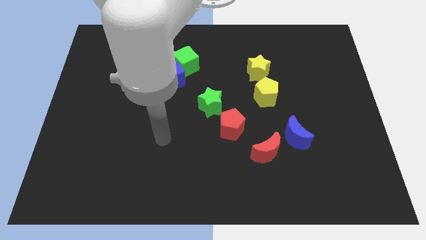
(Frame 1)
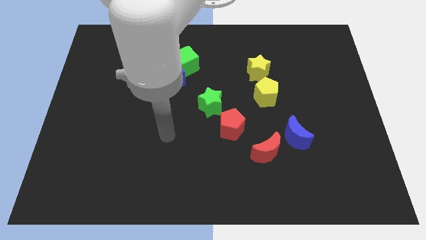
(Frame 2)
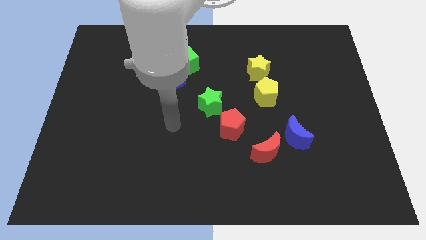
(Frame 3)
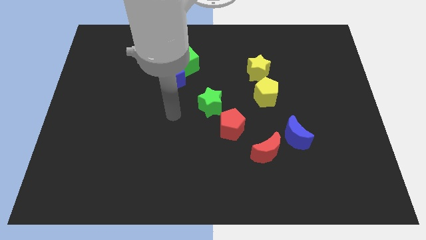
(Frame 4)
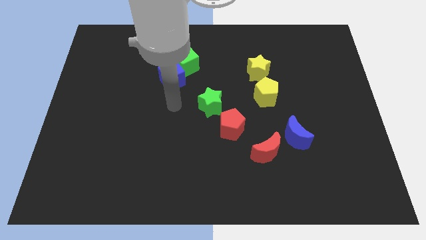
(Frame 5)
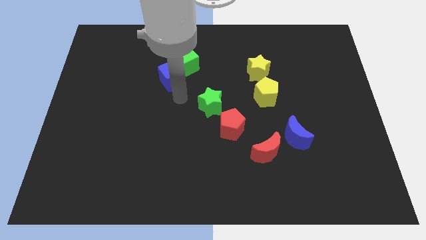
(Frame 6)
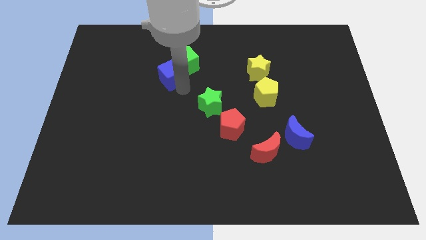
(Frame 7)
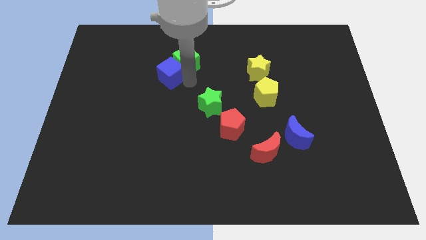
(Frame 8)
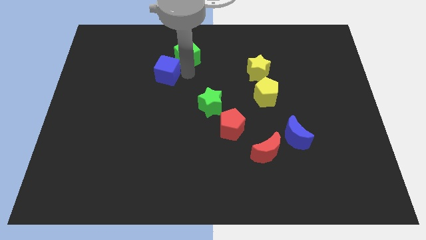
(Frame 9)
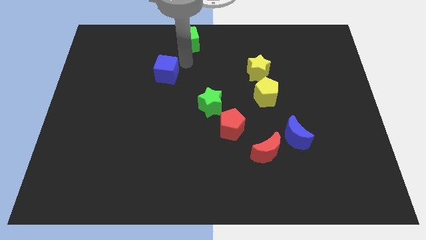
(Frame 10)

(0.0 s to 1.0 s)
pull the blue cube apart from the green cube

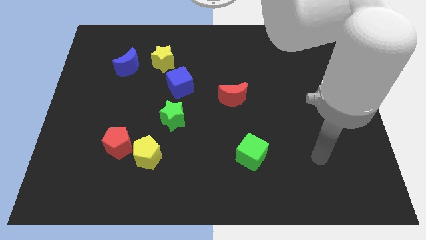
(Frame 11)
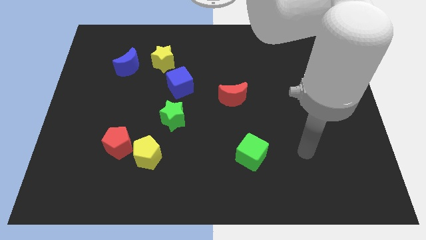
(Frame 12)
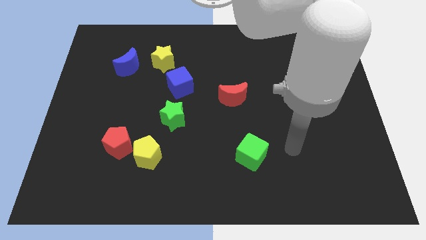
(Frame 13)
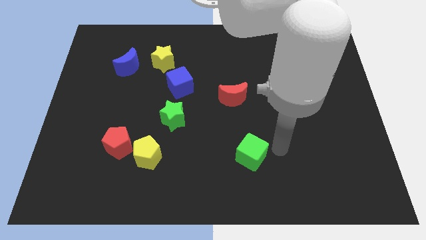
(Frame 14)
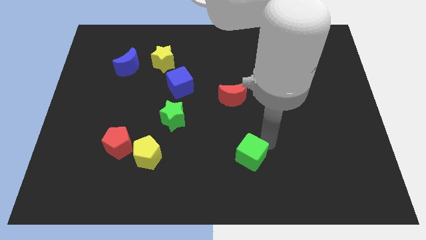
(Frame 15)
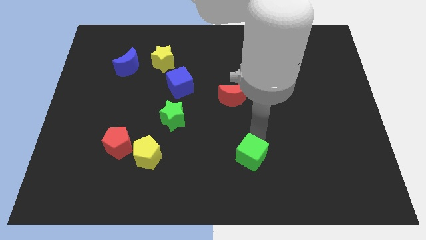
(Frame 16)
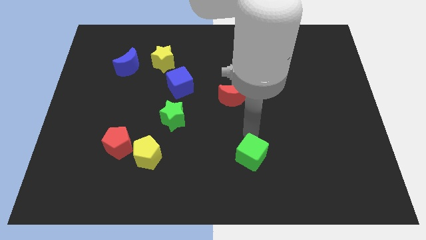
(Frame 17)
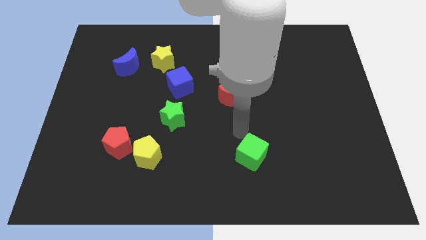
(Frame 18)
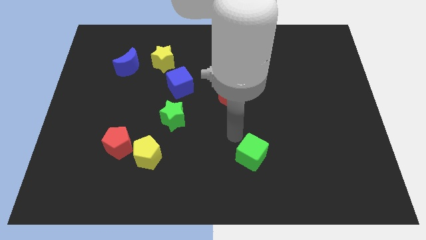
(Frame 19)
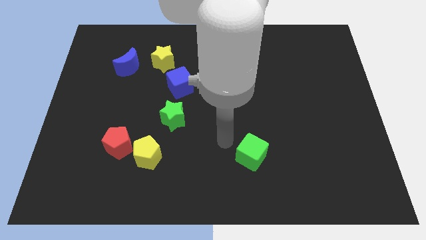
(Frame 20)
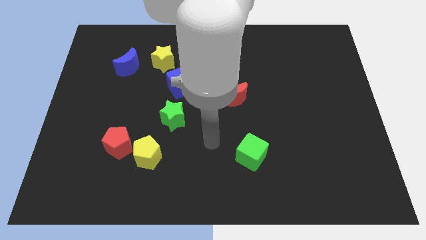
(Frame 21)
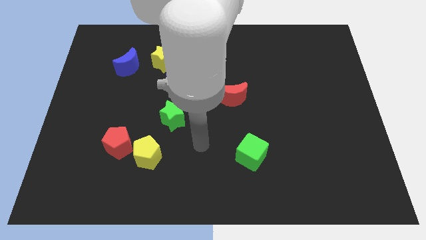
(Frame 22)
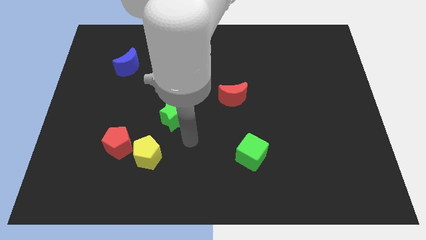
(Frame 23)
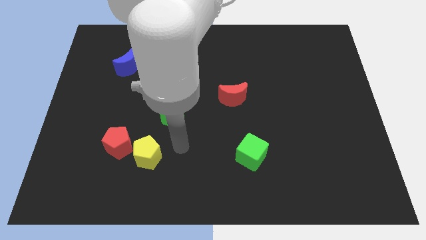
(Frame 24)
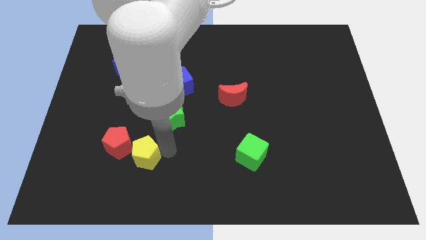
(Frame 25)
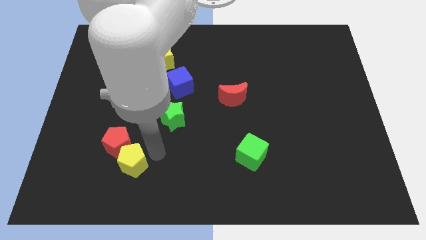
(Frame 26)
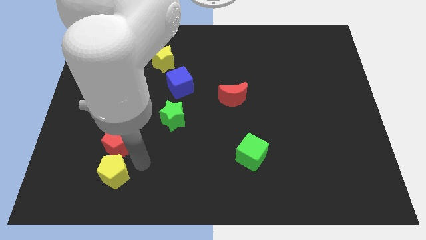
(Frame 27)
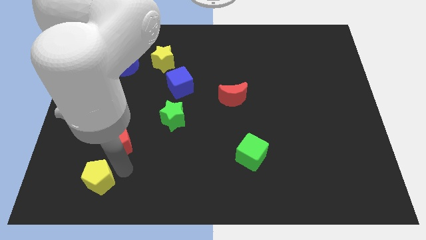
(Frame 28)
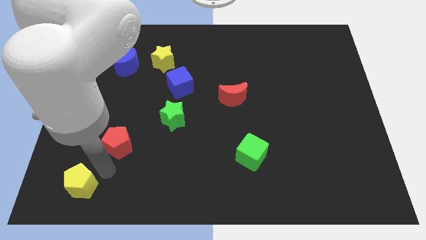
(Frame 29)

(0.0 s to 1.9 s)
pull the red pentagon apart from the yellow pentagon

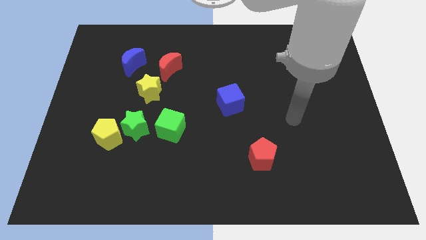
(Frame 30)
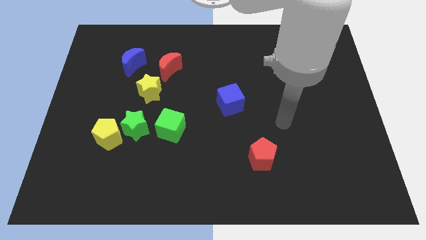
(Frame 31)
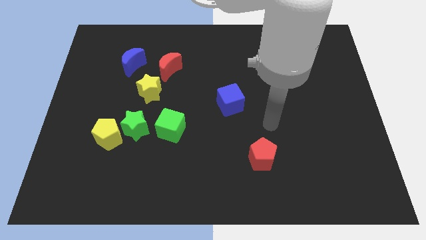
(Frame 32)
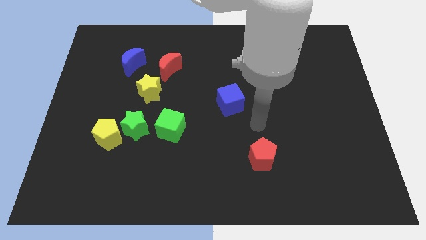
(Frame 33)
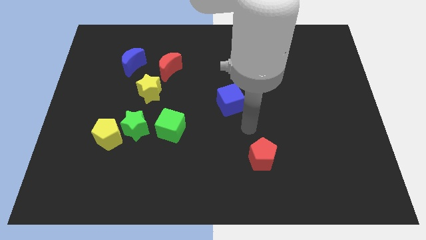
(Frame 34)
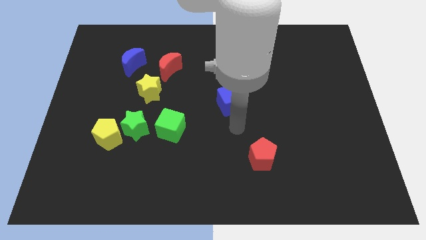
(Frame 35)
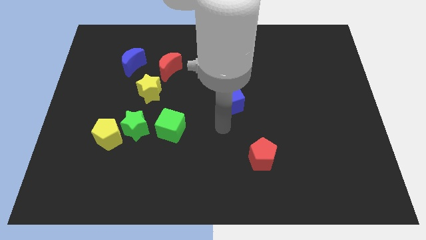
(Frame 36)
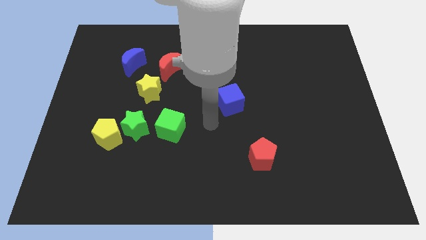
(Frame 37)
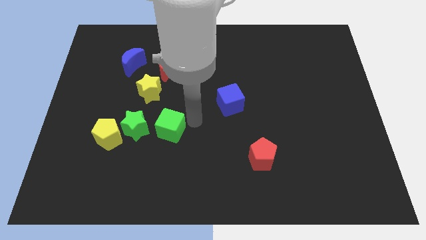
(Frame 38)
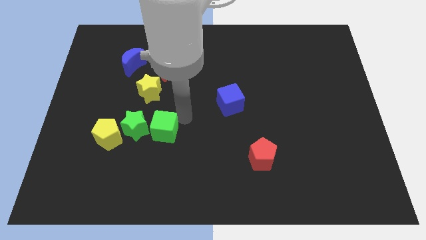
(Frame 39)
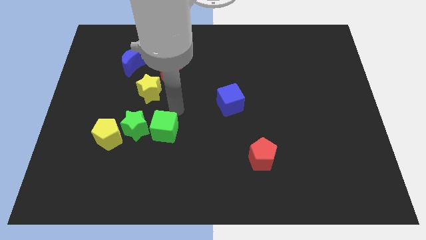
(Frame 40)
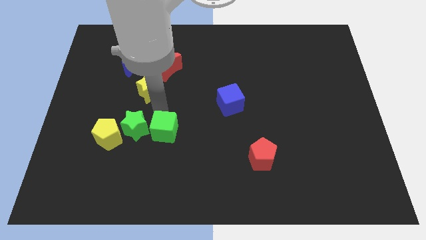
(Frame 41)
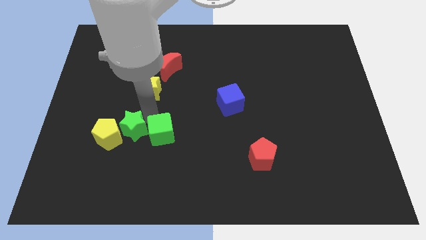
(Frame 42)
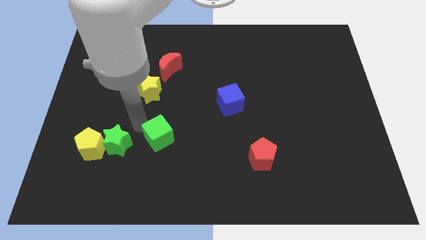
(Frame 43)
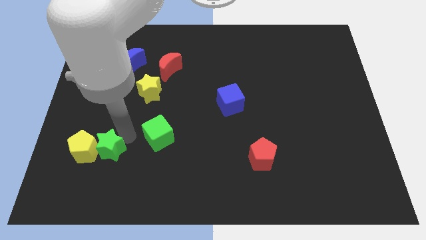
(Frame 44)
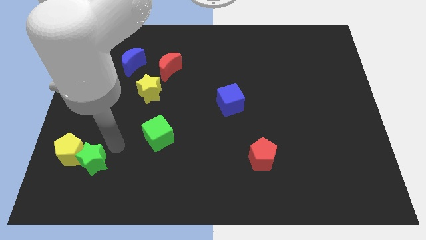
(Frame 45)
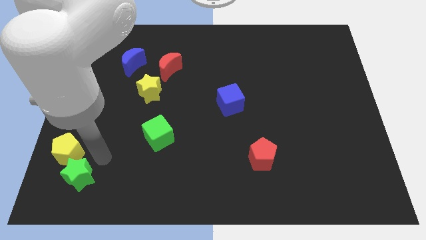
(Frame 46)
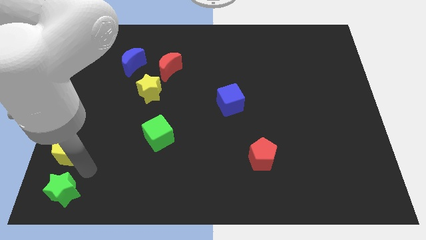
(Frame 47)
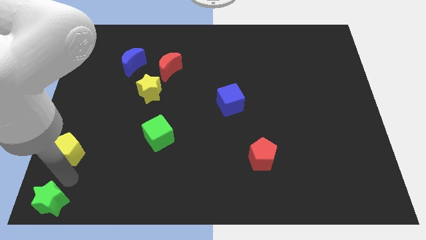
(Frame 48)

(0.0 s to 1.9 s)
pull the yellow pentagon apart from the green star

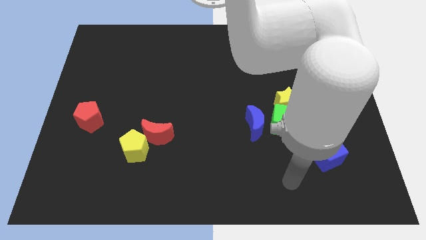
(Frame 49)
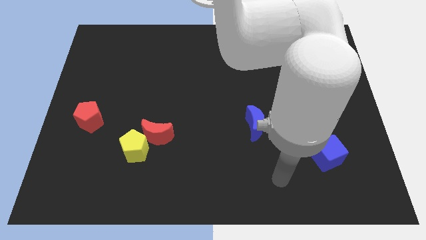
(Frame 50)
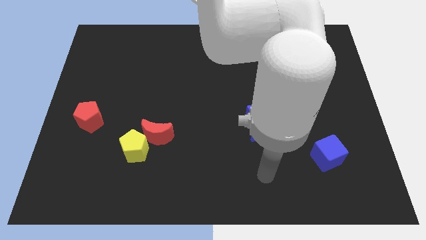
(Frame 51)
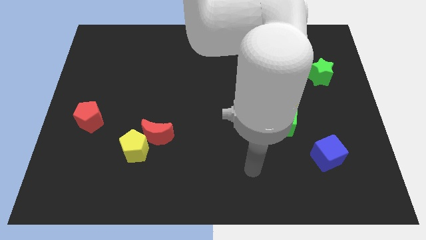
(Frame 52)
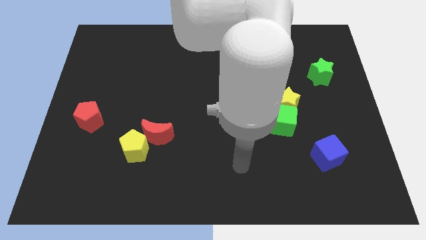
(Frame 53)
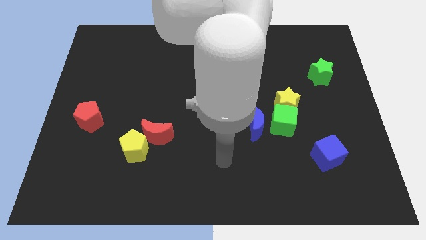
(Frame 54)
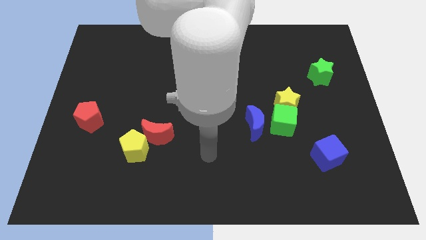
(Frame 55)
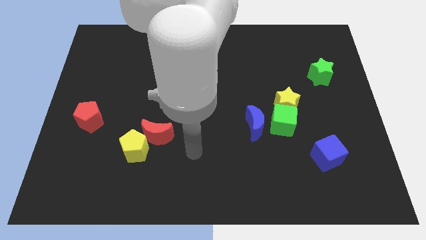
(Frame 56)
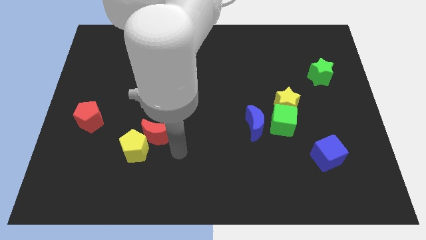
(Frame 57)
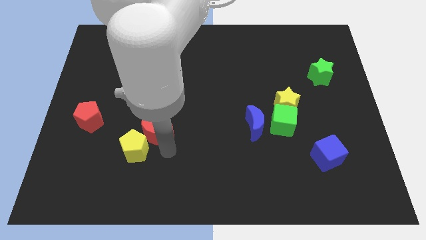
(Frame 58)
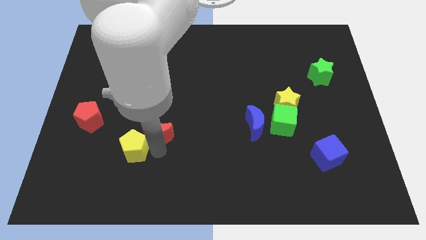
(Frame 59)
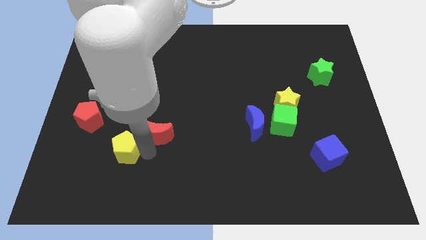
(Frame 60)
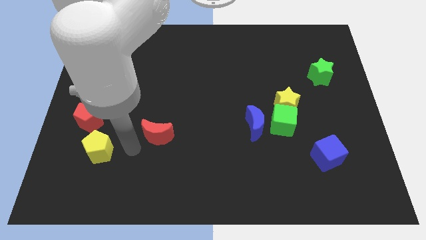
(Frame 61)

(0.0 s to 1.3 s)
pull the red moon apart from the yellow pentagon

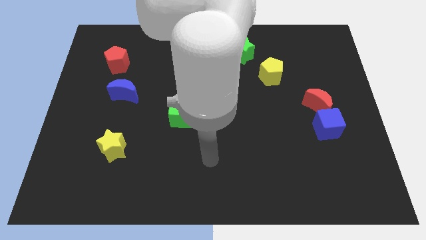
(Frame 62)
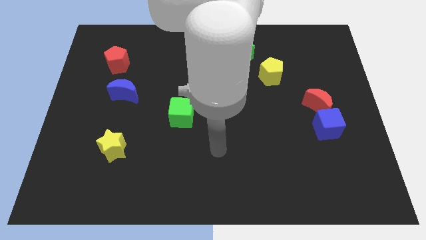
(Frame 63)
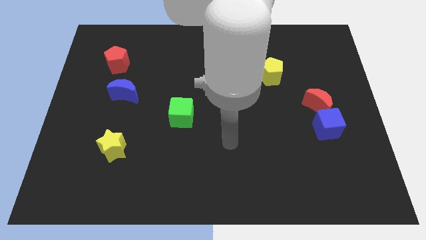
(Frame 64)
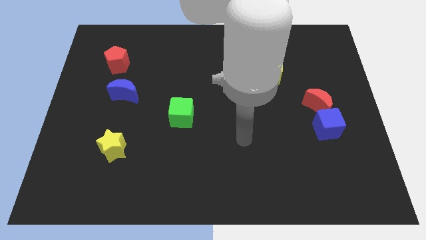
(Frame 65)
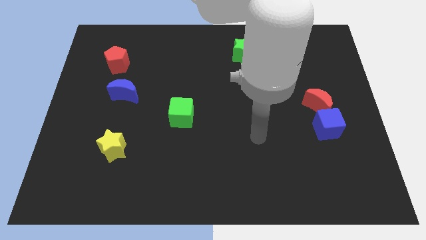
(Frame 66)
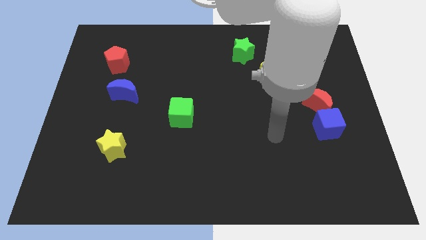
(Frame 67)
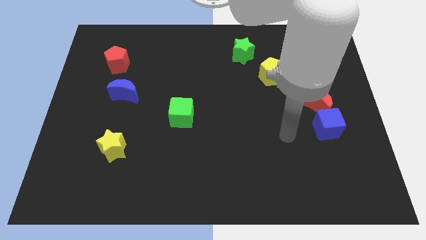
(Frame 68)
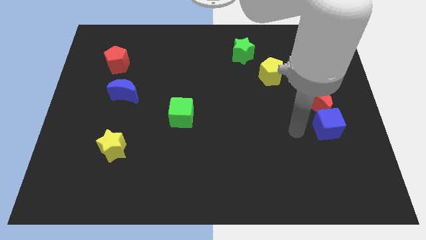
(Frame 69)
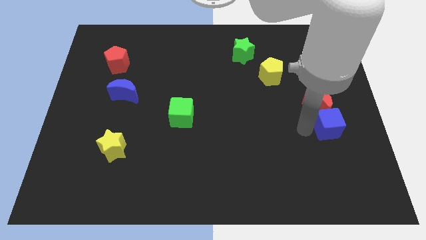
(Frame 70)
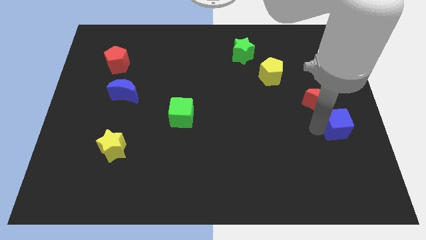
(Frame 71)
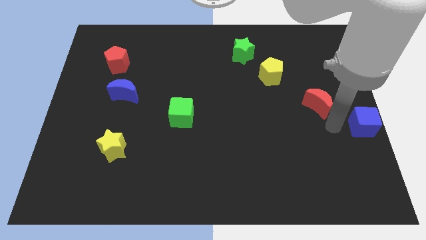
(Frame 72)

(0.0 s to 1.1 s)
separate the red moon from the blue cube

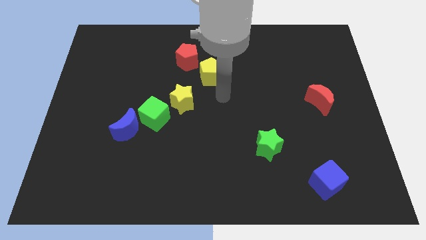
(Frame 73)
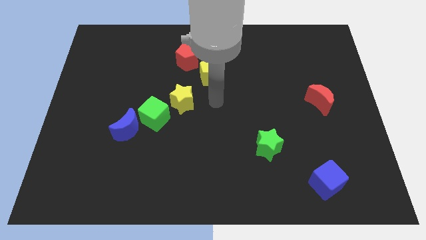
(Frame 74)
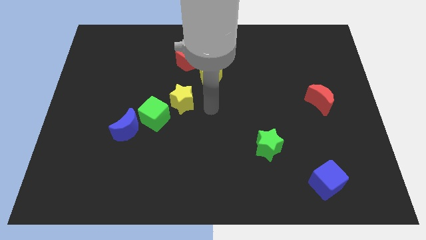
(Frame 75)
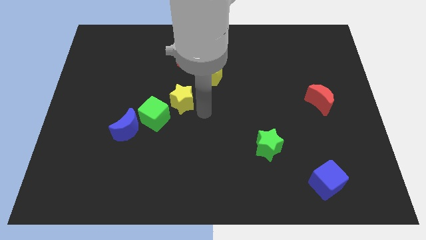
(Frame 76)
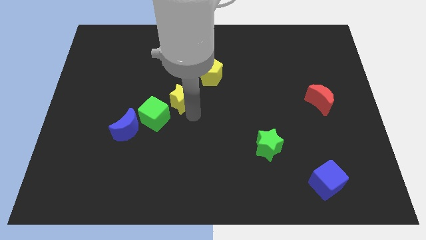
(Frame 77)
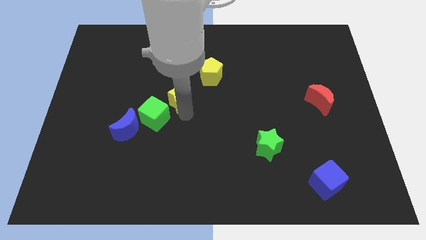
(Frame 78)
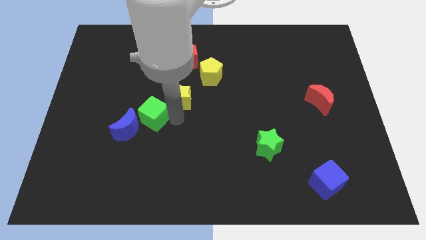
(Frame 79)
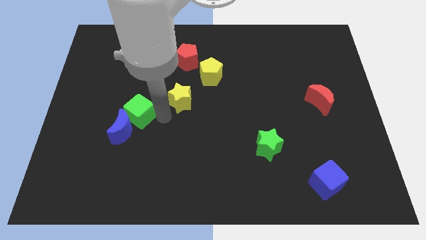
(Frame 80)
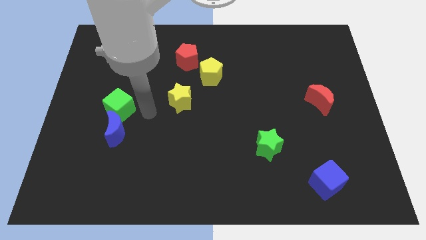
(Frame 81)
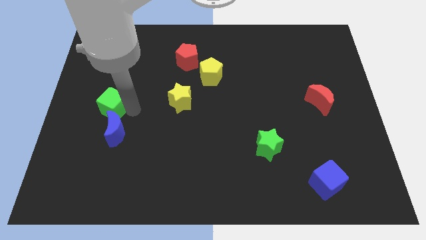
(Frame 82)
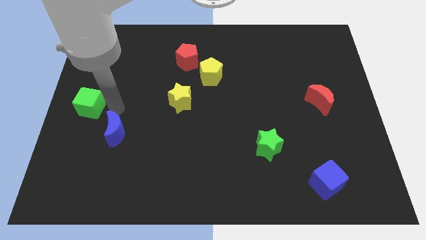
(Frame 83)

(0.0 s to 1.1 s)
separate the blue moon from the green cube

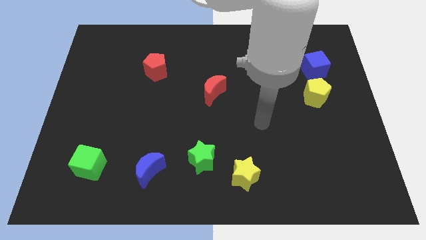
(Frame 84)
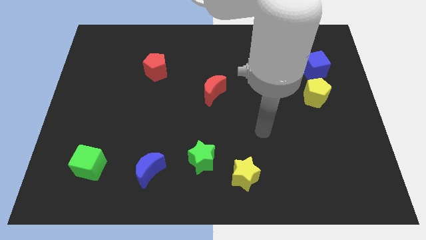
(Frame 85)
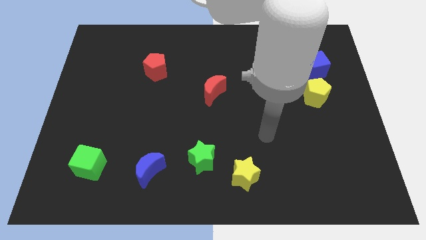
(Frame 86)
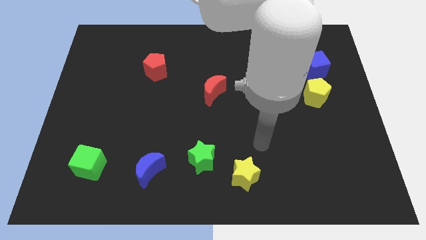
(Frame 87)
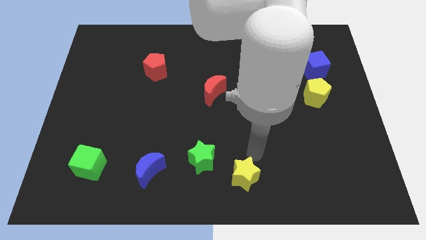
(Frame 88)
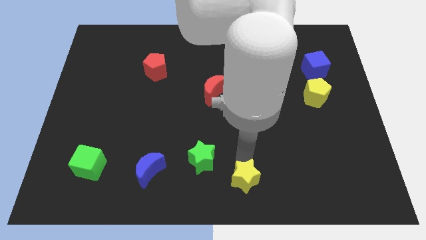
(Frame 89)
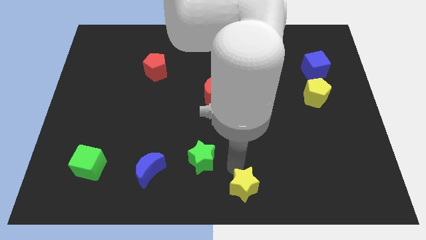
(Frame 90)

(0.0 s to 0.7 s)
separate the green star from the yellow star

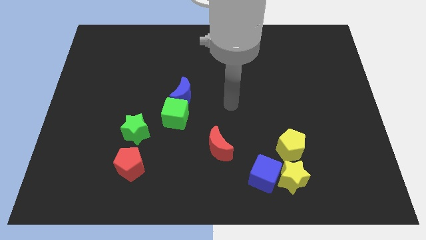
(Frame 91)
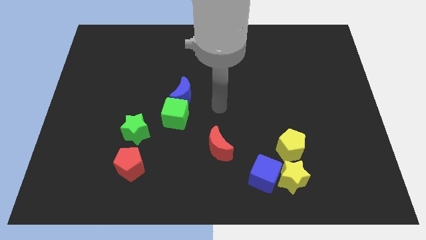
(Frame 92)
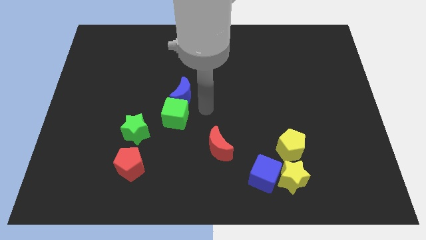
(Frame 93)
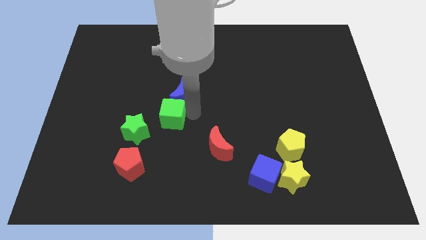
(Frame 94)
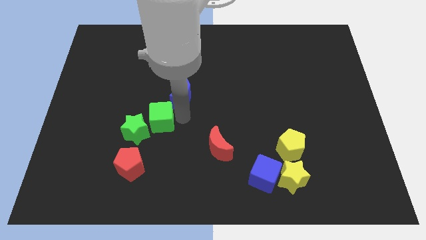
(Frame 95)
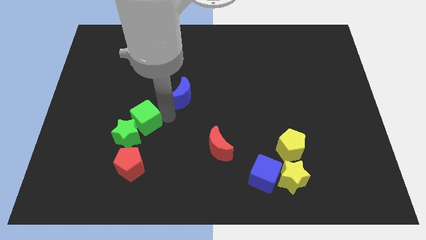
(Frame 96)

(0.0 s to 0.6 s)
move the blue moon away from the green cube
